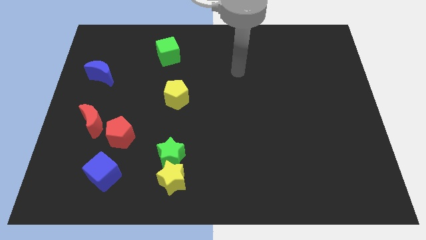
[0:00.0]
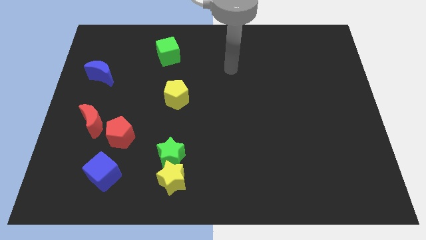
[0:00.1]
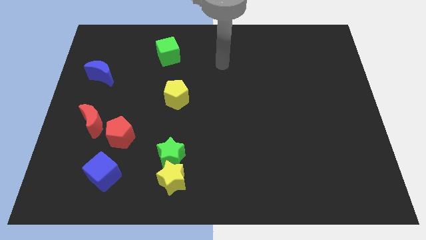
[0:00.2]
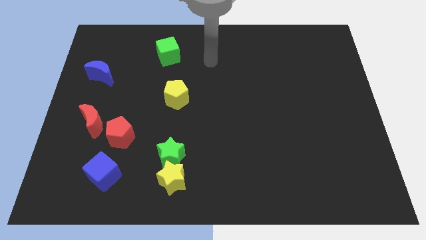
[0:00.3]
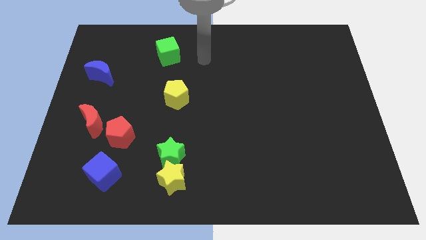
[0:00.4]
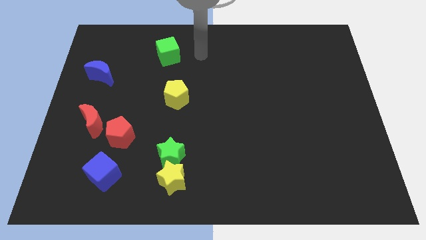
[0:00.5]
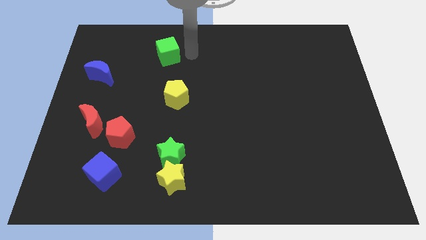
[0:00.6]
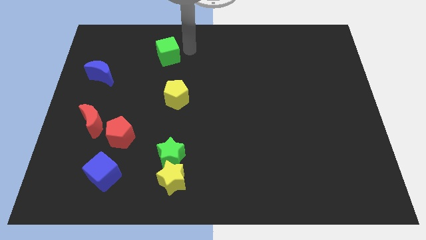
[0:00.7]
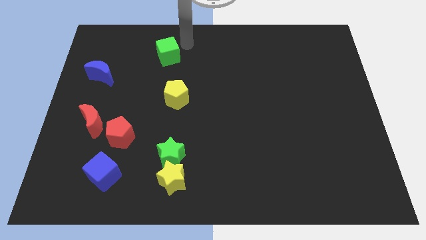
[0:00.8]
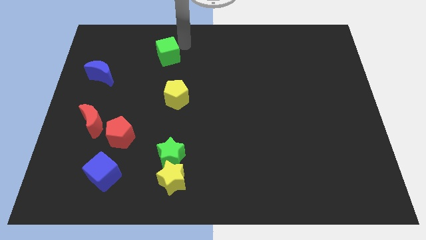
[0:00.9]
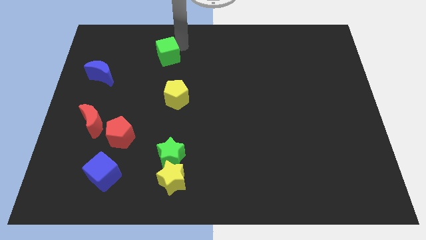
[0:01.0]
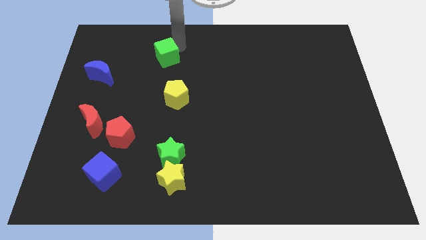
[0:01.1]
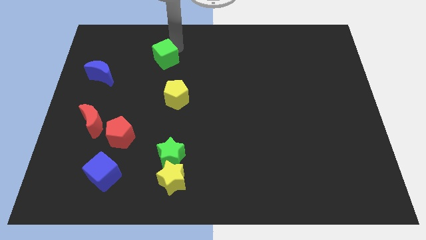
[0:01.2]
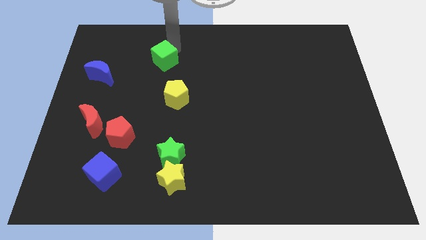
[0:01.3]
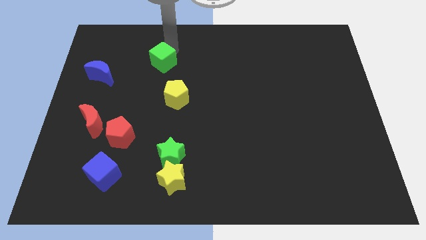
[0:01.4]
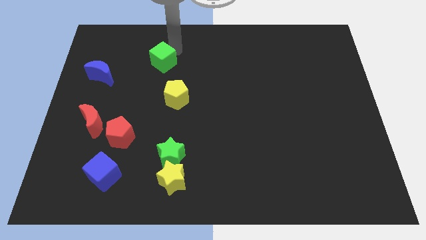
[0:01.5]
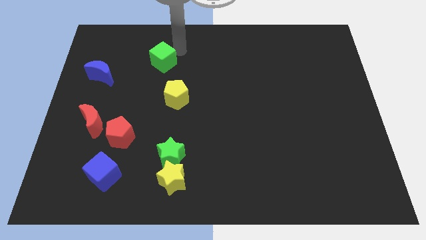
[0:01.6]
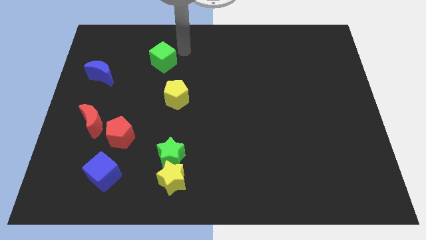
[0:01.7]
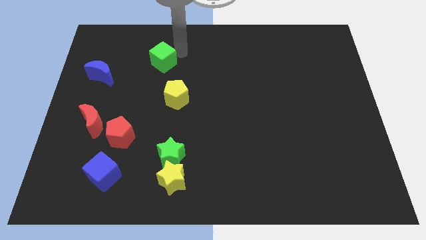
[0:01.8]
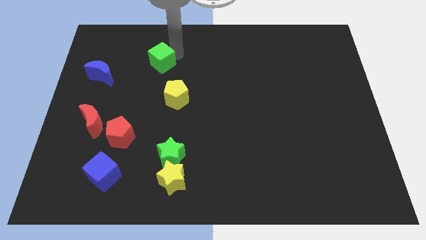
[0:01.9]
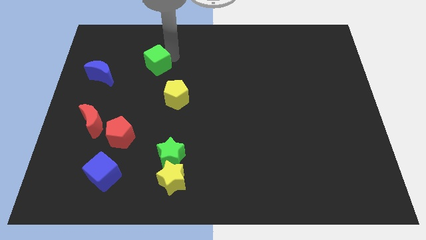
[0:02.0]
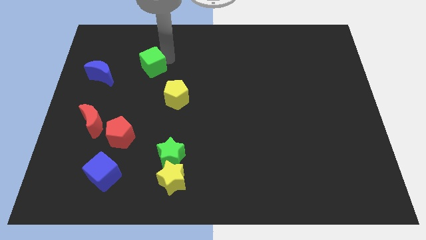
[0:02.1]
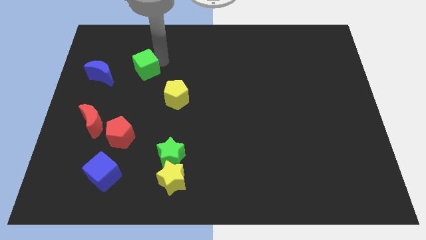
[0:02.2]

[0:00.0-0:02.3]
slide the green cube a bit downwards and then to the left

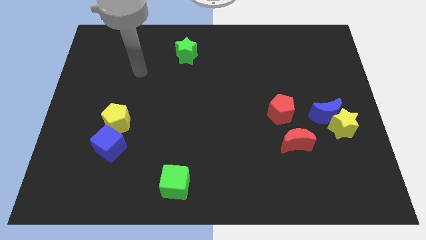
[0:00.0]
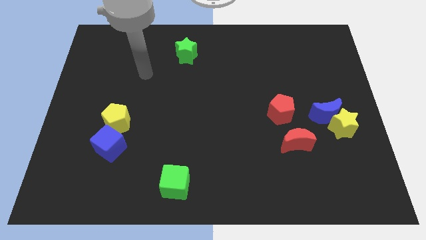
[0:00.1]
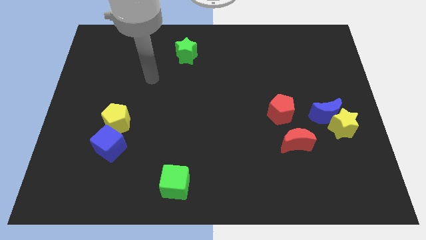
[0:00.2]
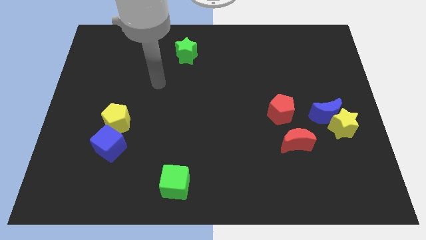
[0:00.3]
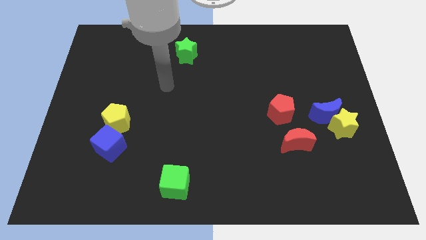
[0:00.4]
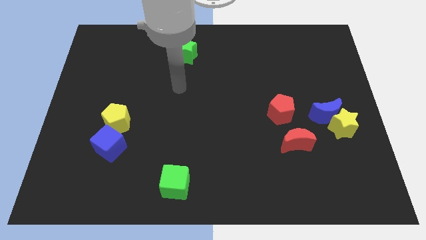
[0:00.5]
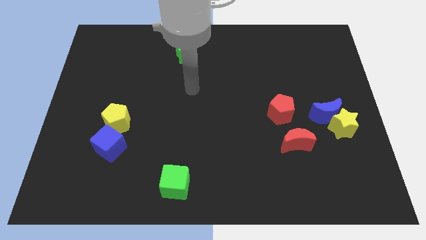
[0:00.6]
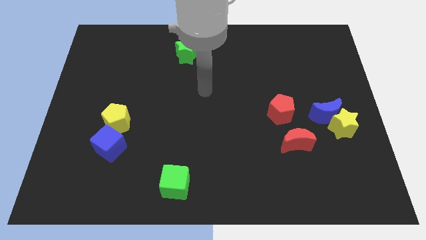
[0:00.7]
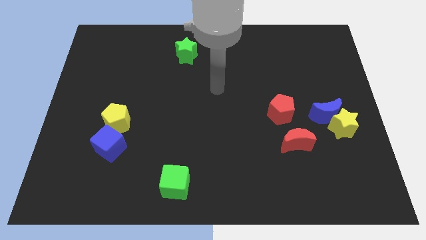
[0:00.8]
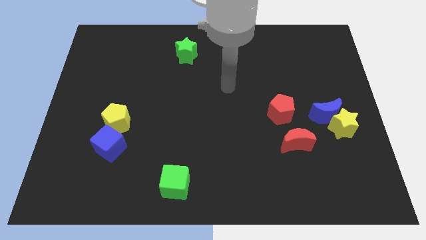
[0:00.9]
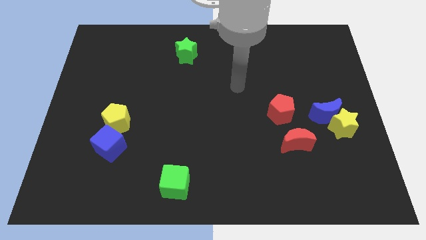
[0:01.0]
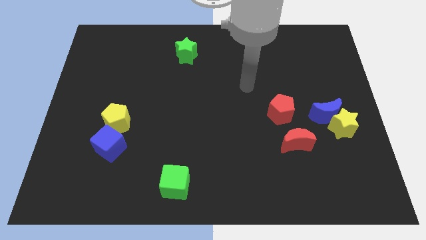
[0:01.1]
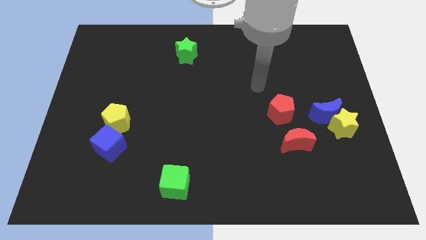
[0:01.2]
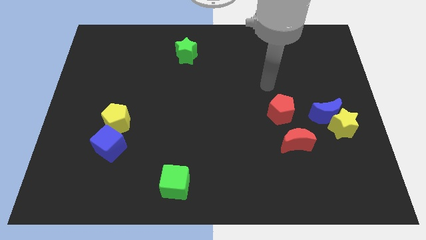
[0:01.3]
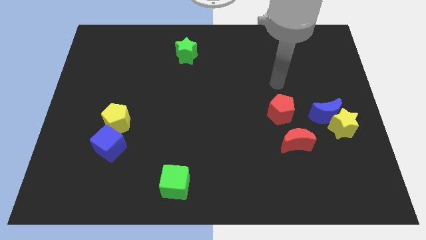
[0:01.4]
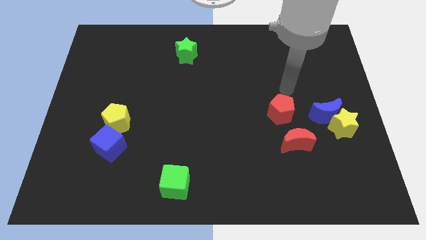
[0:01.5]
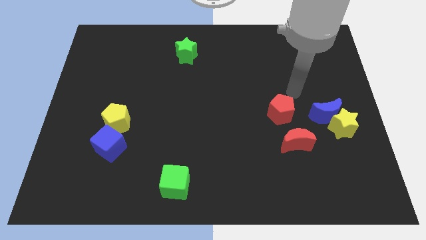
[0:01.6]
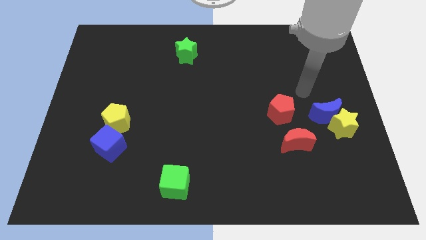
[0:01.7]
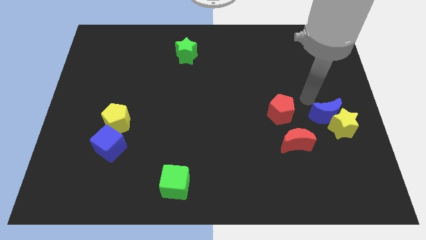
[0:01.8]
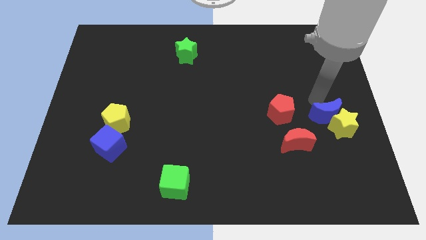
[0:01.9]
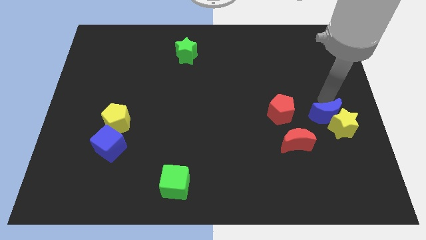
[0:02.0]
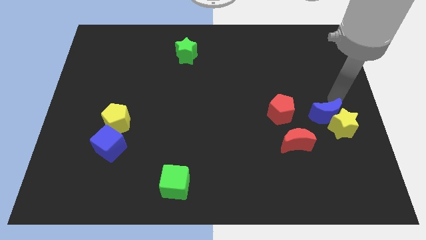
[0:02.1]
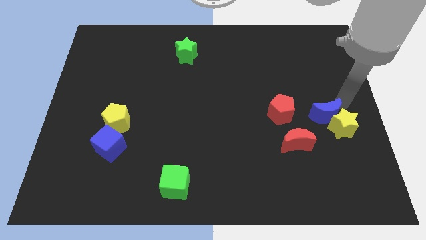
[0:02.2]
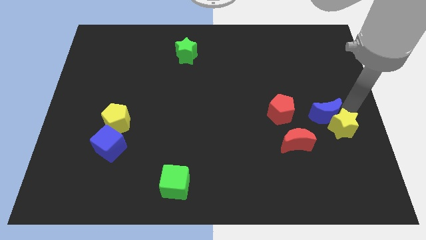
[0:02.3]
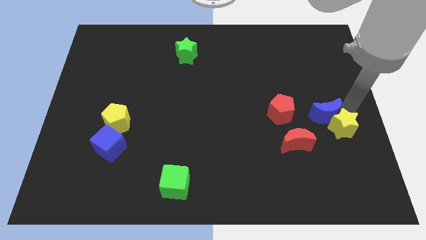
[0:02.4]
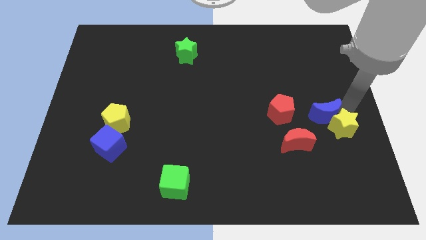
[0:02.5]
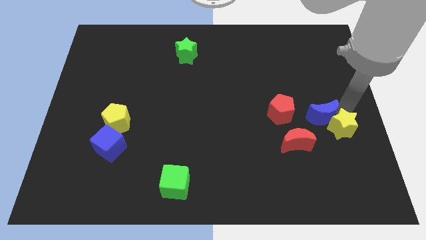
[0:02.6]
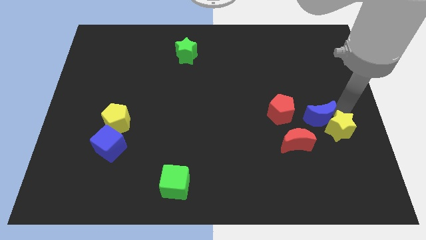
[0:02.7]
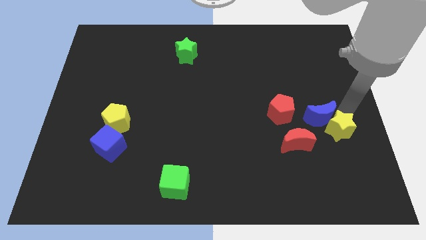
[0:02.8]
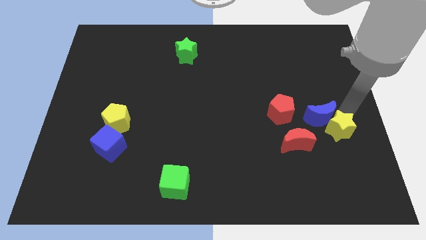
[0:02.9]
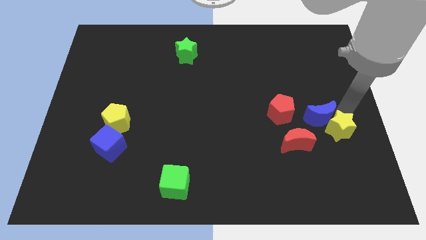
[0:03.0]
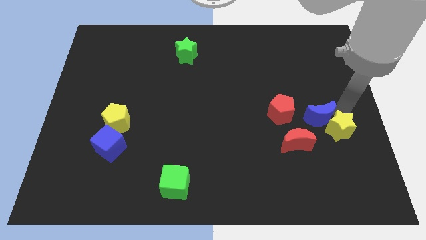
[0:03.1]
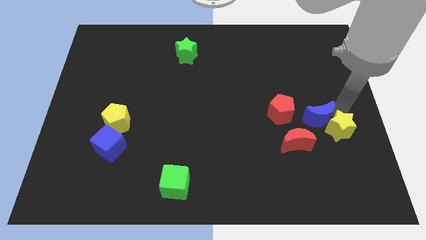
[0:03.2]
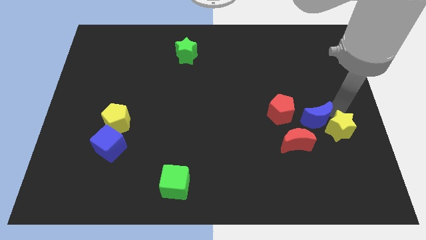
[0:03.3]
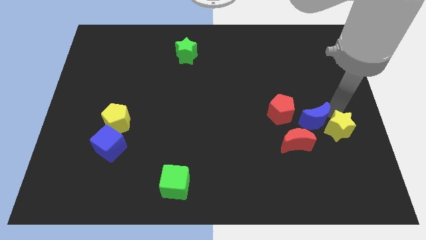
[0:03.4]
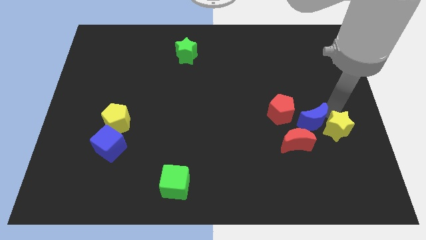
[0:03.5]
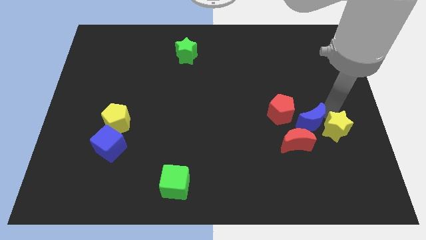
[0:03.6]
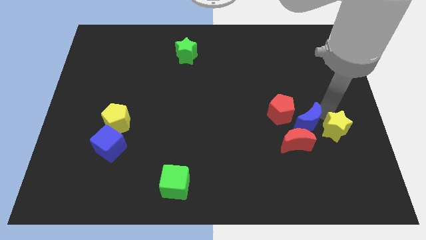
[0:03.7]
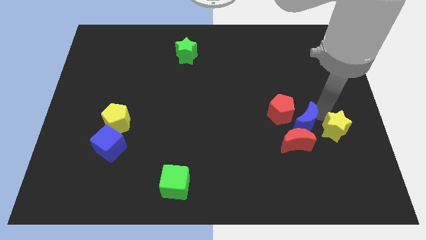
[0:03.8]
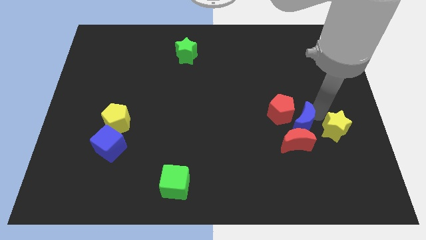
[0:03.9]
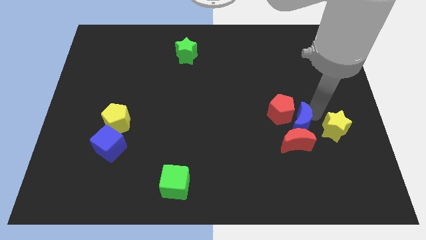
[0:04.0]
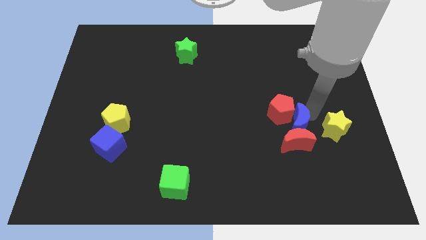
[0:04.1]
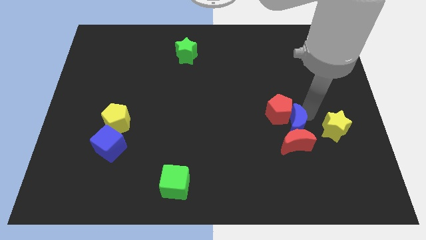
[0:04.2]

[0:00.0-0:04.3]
slide the blue moon slightly left

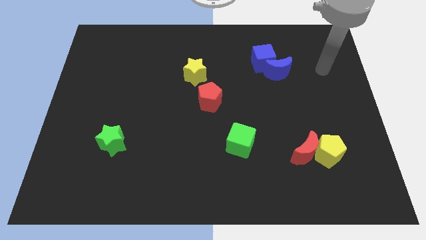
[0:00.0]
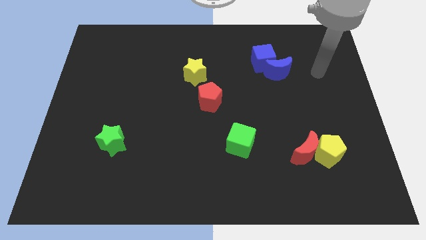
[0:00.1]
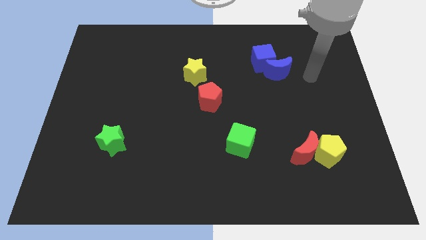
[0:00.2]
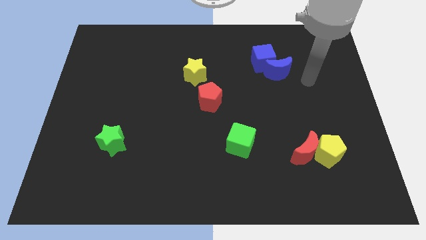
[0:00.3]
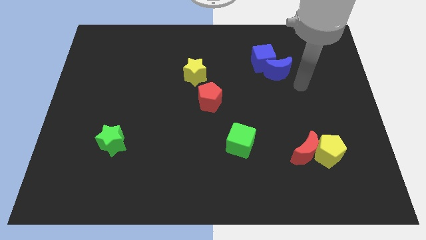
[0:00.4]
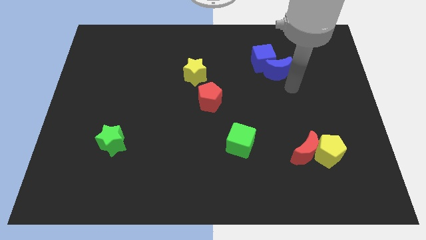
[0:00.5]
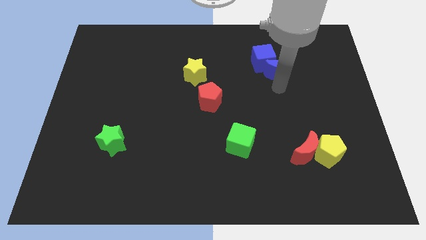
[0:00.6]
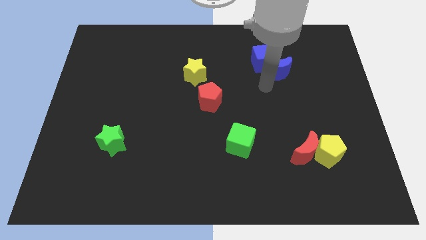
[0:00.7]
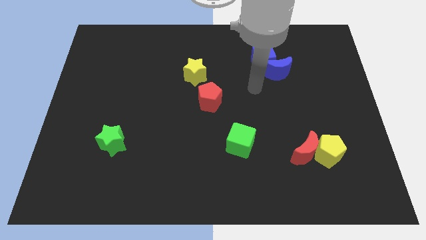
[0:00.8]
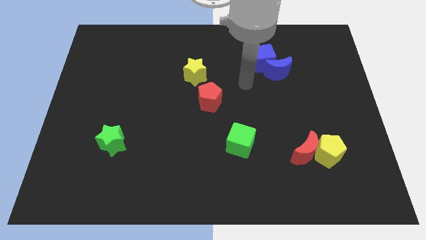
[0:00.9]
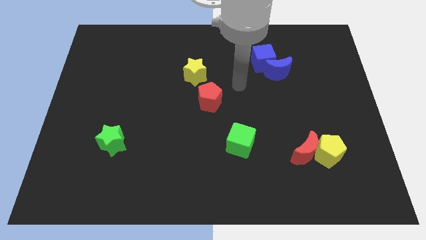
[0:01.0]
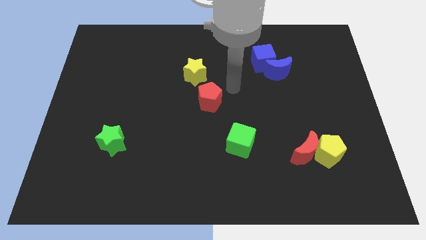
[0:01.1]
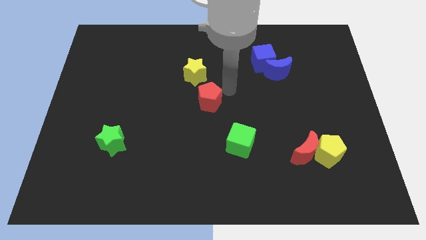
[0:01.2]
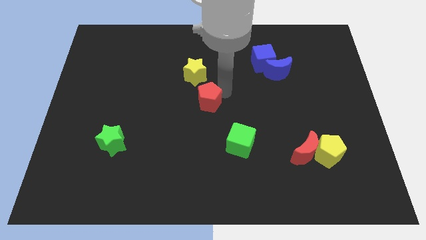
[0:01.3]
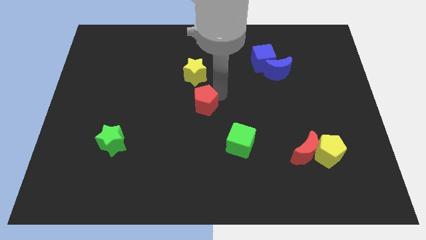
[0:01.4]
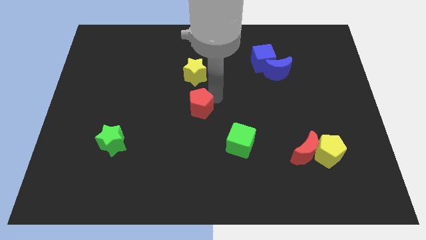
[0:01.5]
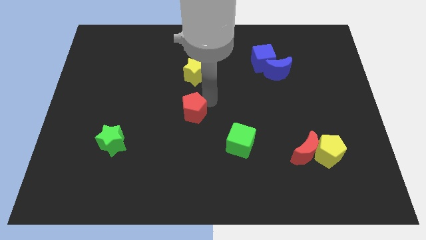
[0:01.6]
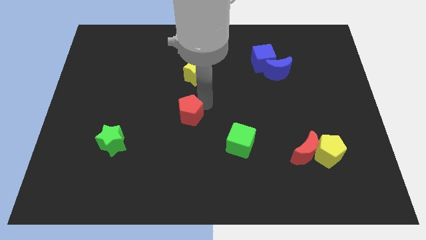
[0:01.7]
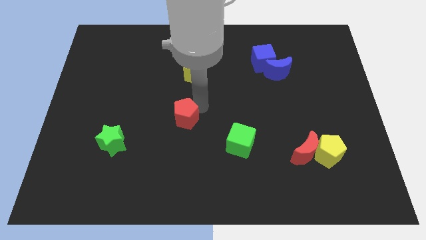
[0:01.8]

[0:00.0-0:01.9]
slightly move the red pentagon diagonally down and to the left

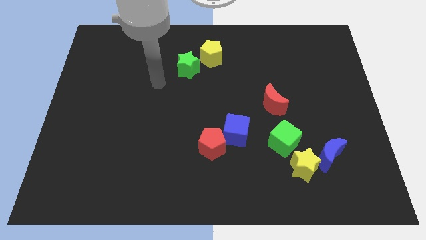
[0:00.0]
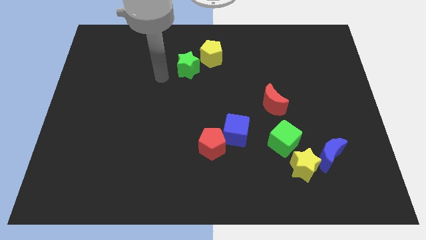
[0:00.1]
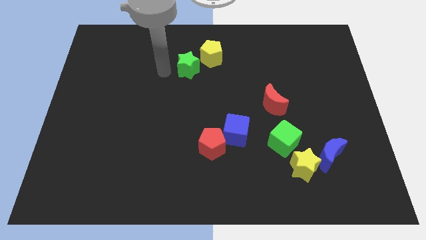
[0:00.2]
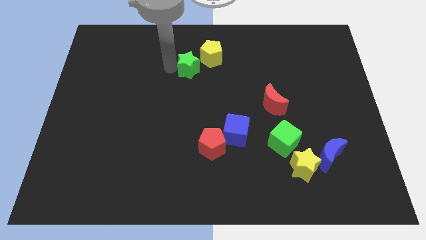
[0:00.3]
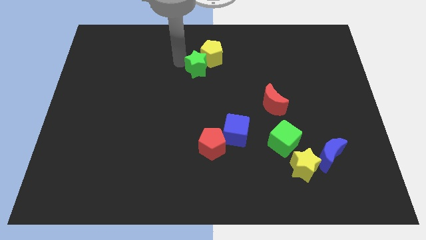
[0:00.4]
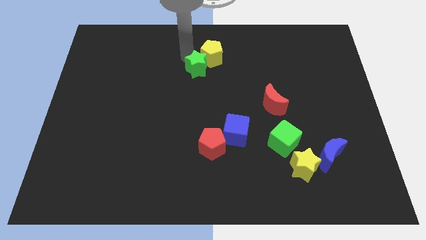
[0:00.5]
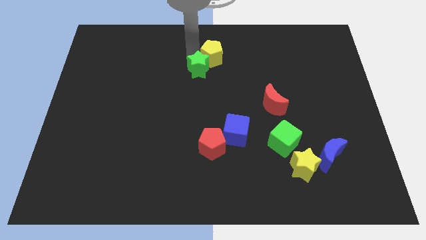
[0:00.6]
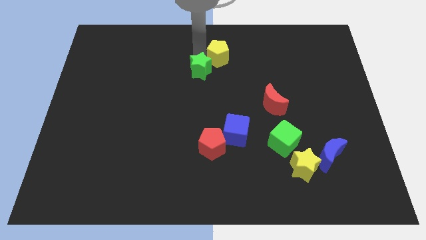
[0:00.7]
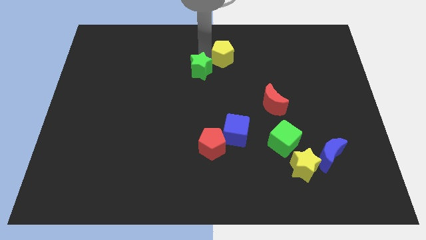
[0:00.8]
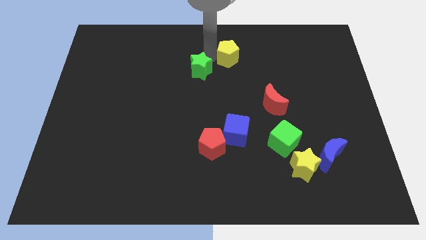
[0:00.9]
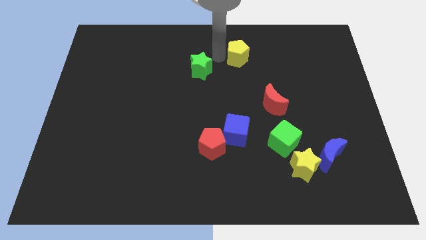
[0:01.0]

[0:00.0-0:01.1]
slightly push the yellow pentagon to the right
